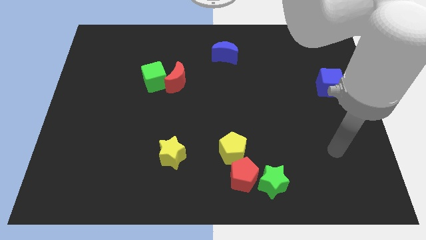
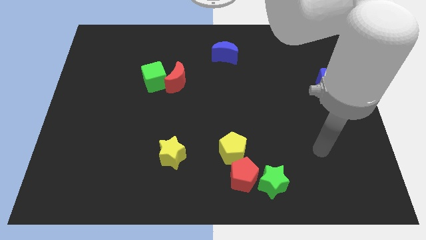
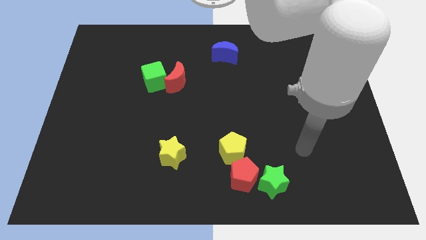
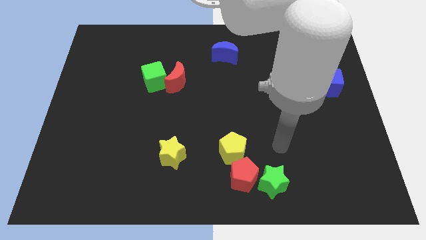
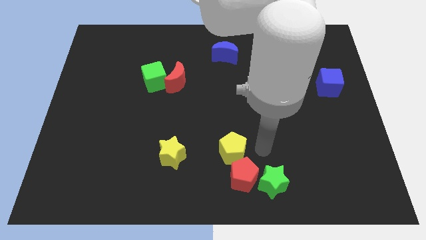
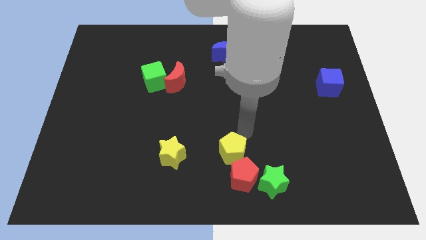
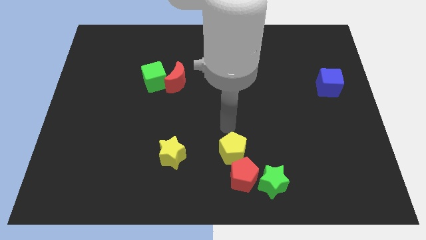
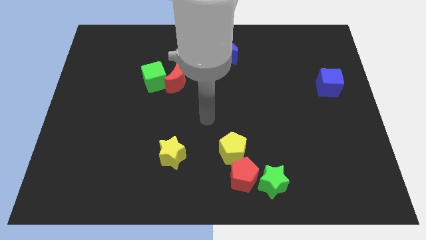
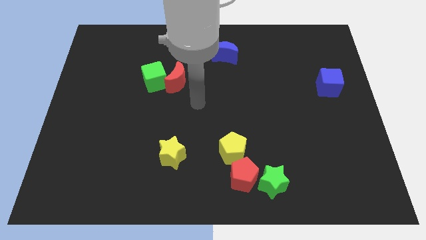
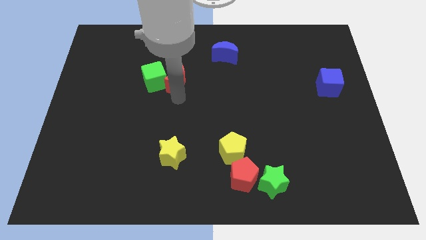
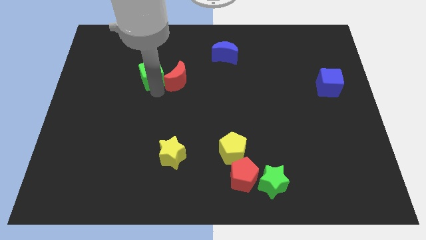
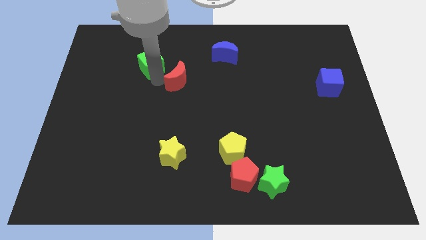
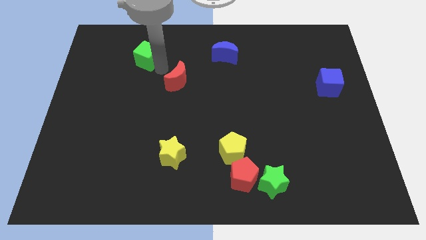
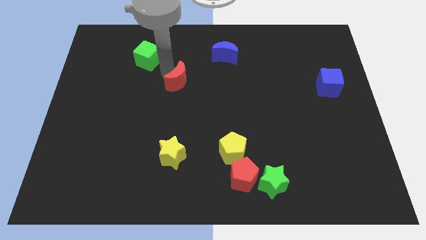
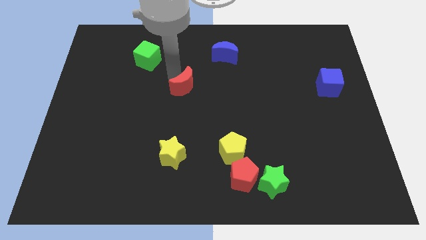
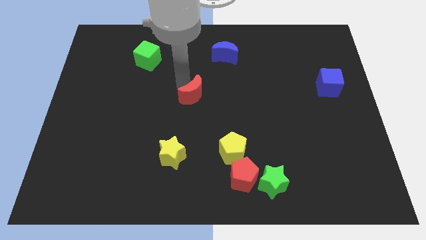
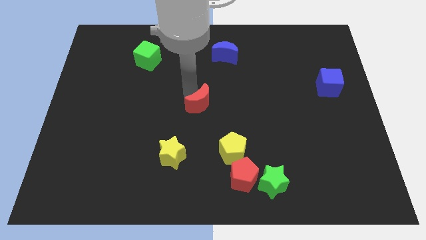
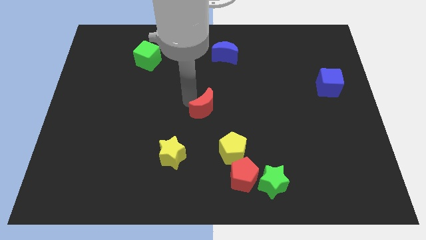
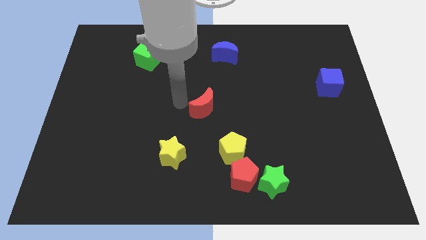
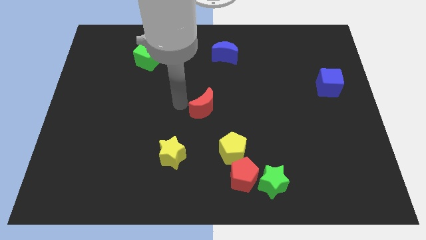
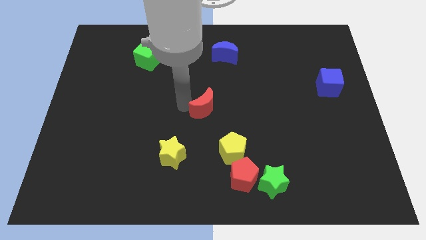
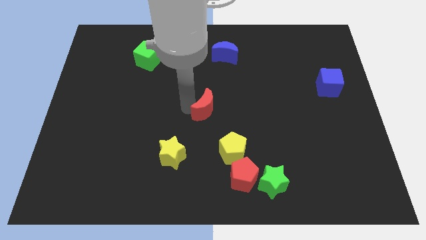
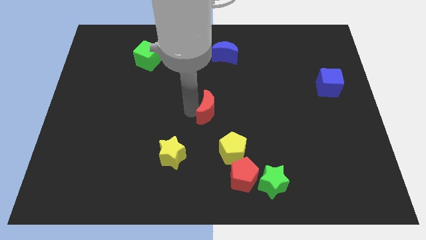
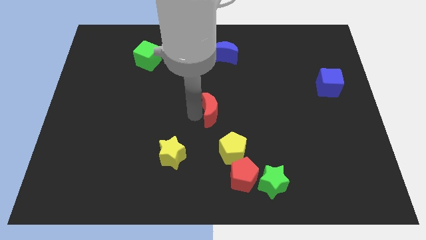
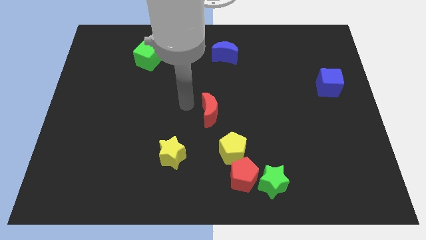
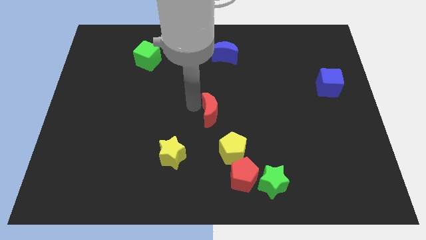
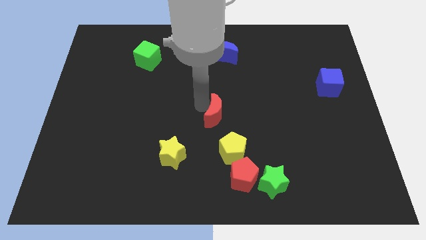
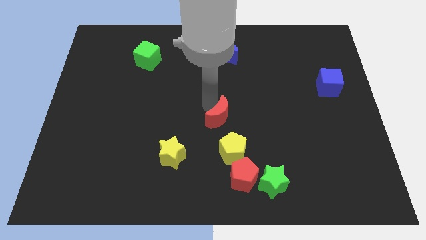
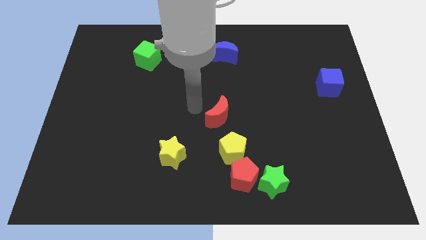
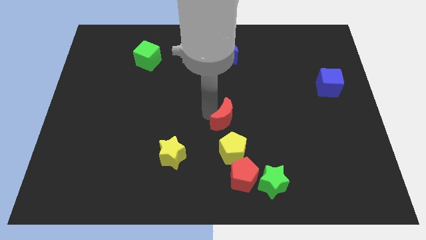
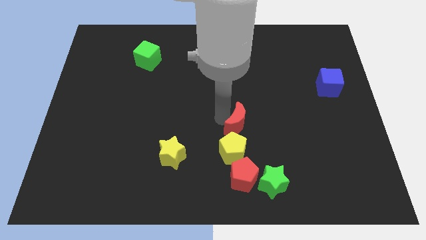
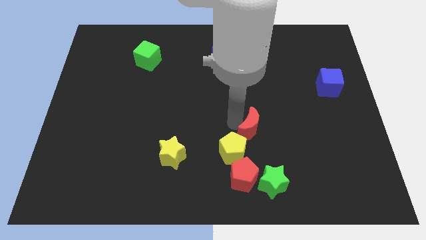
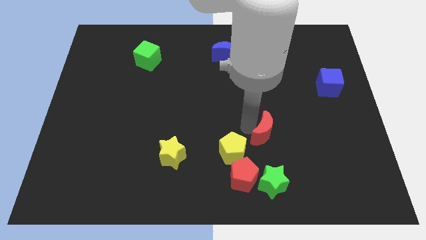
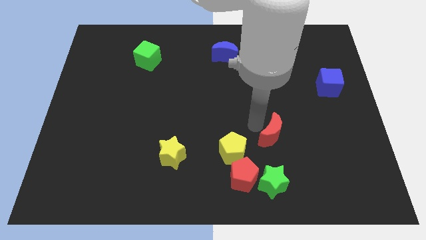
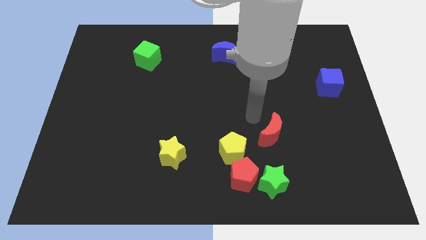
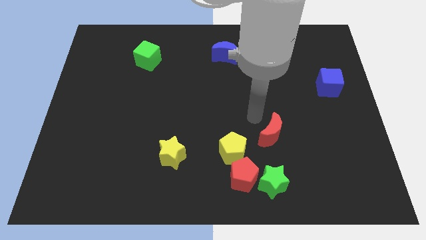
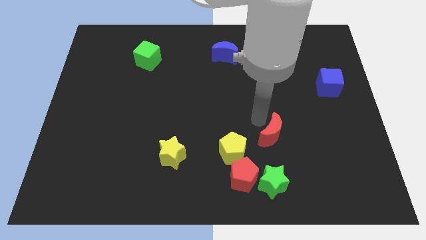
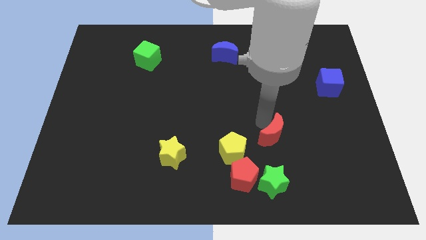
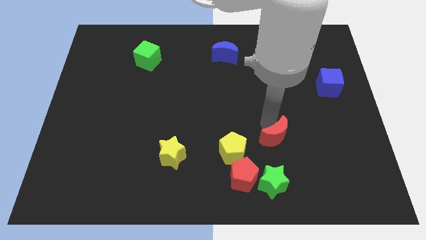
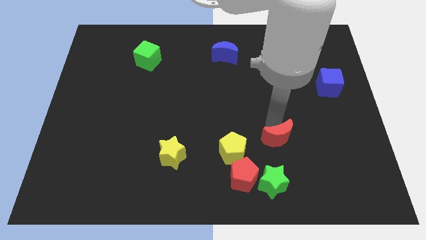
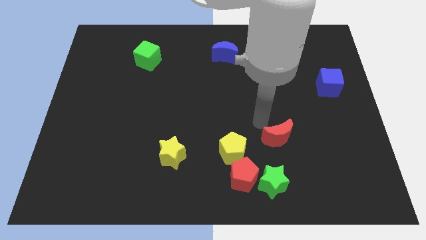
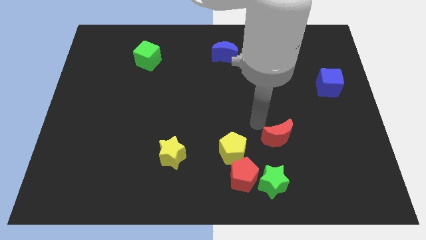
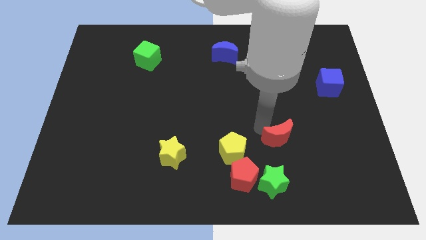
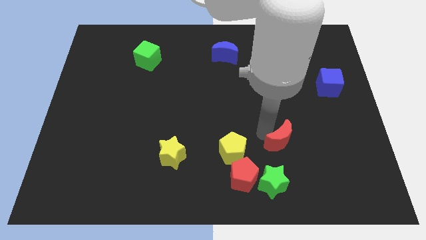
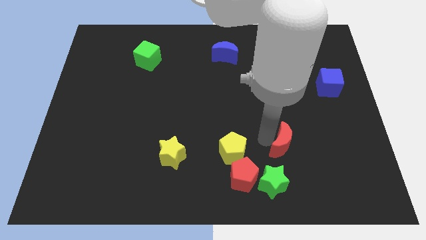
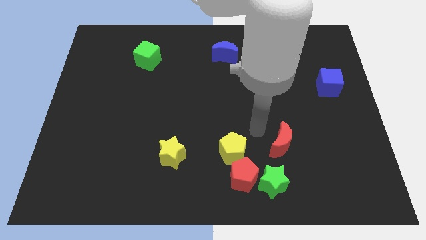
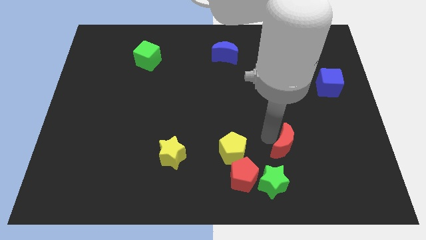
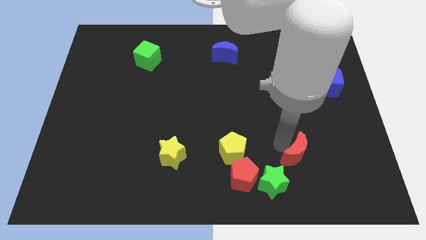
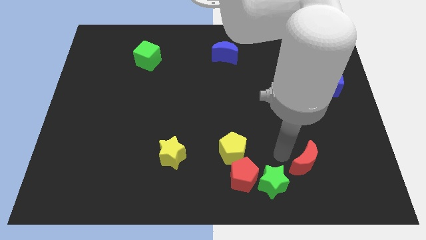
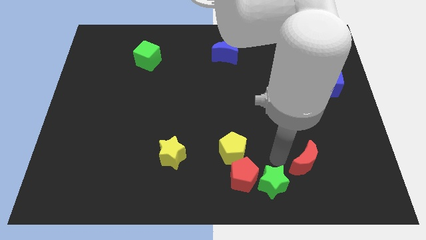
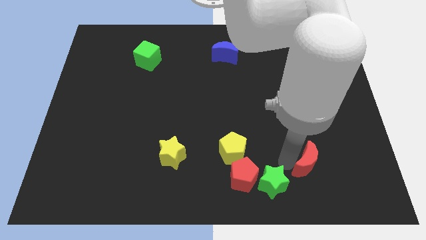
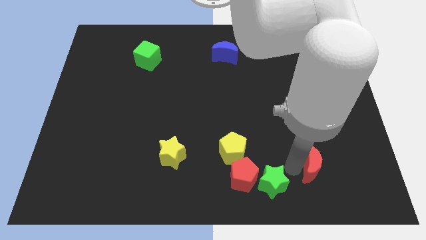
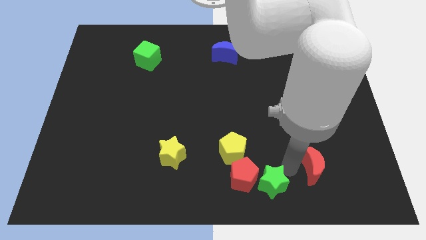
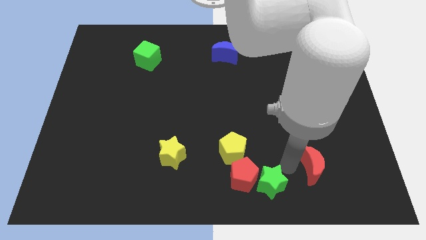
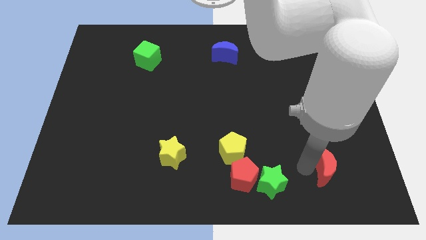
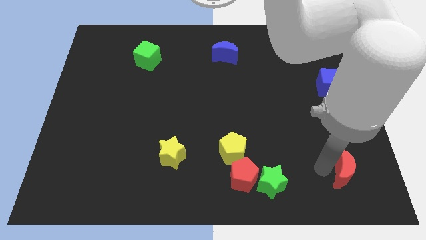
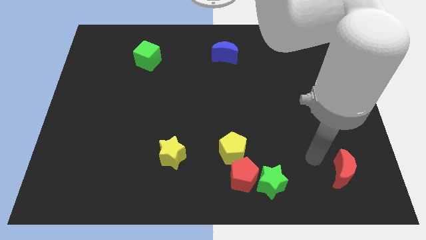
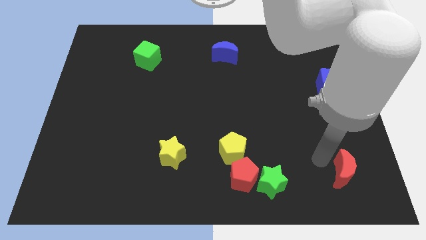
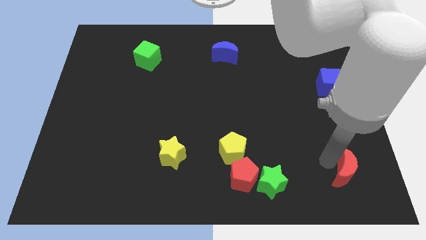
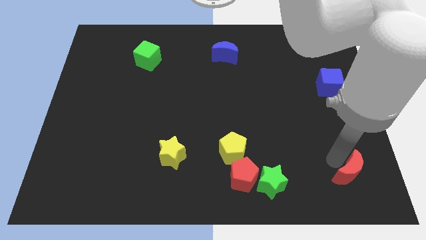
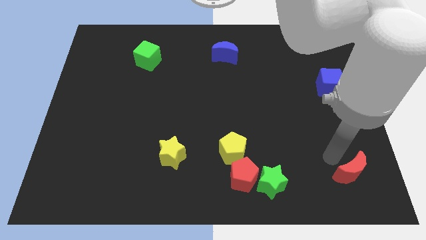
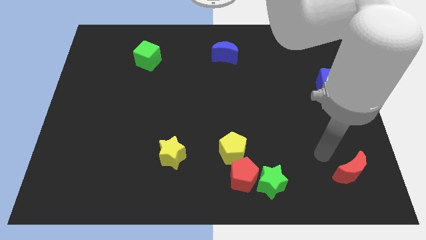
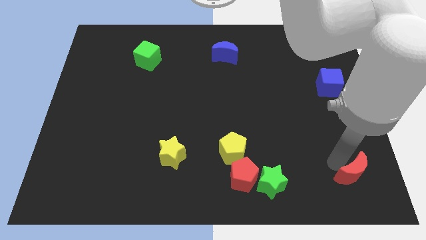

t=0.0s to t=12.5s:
push the red moon to the bottom right

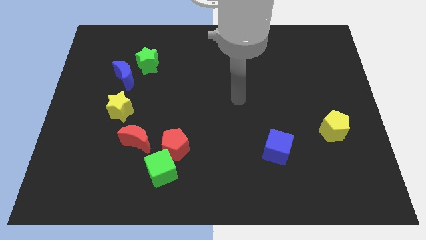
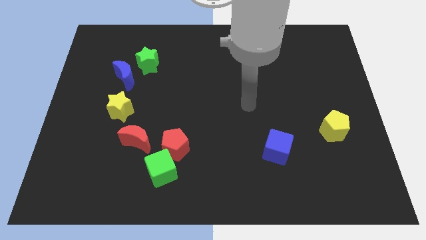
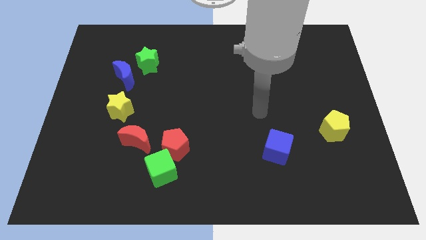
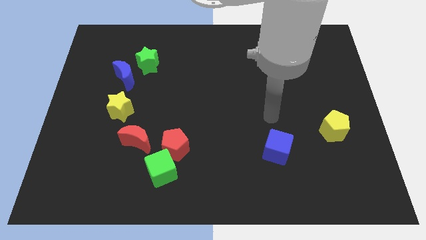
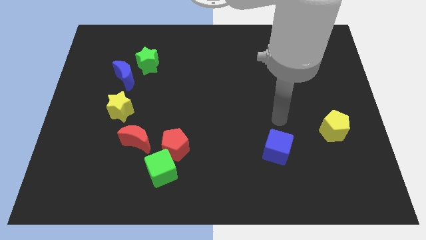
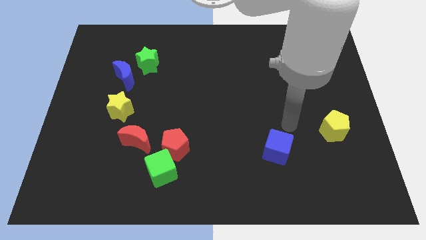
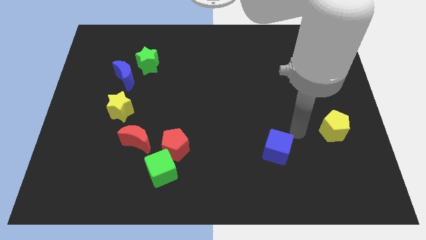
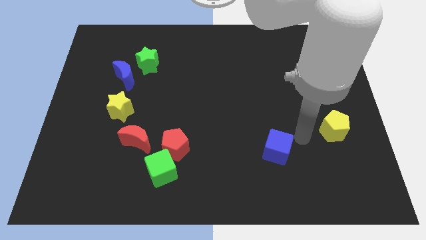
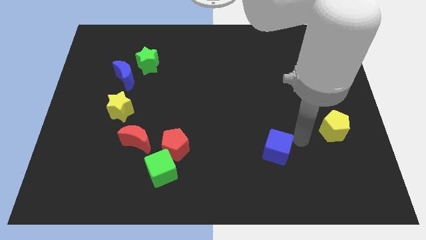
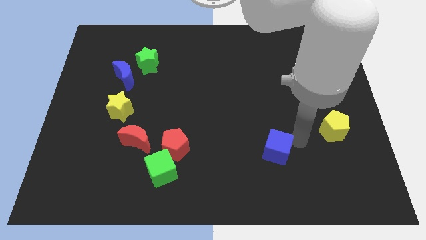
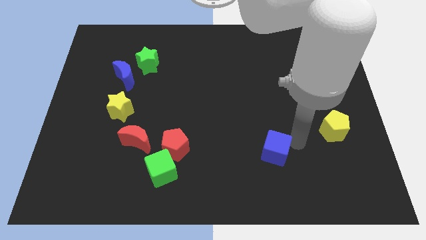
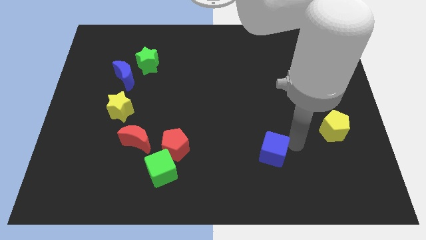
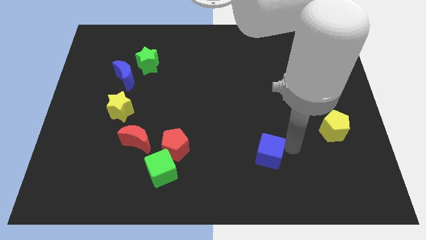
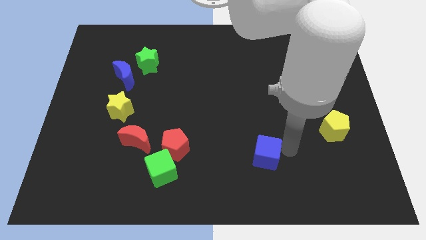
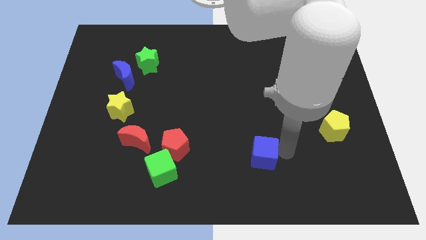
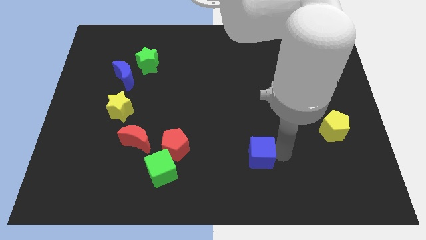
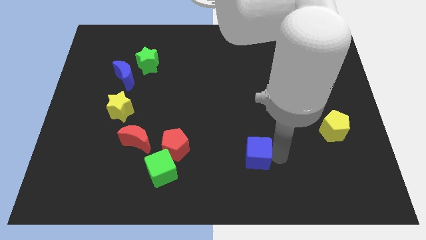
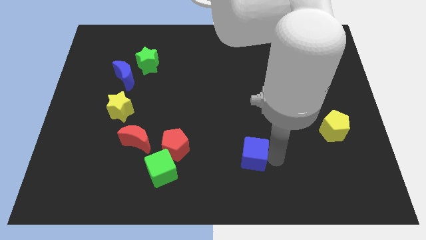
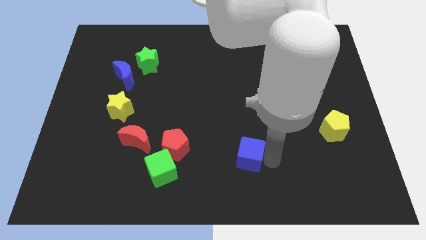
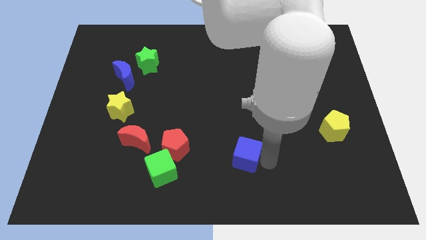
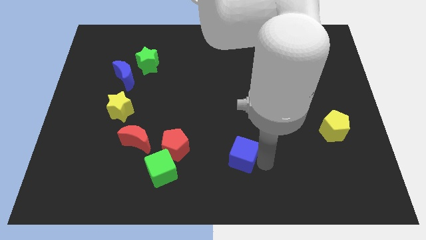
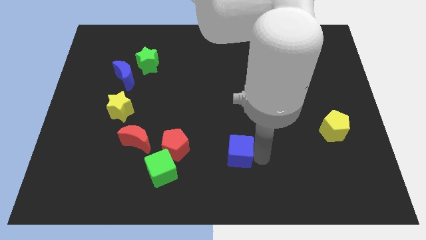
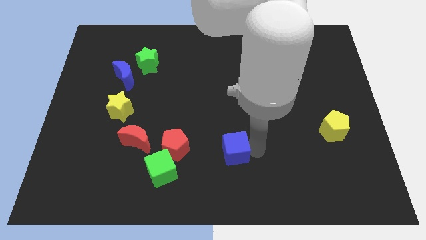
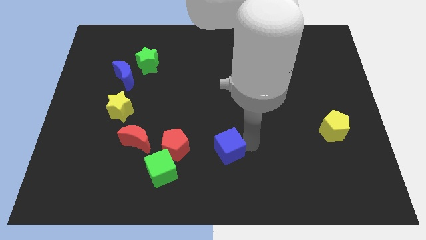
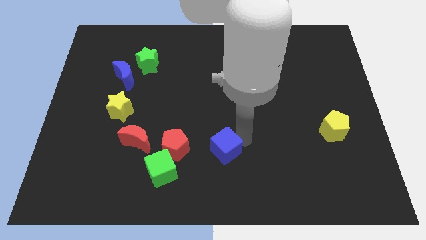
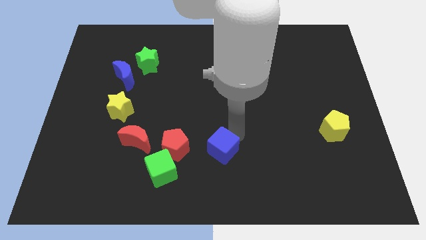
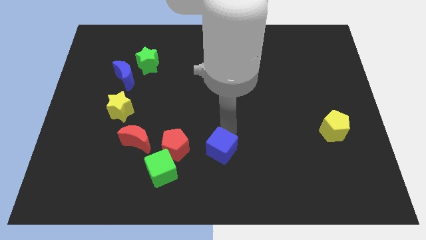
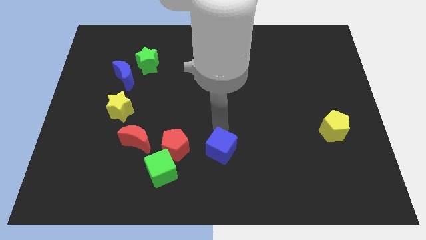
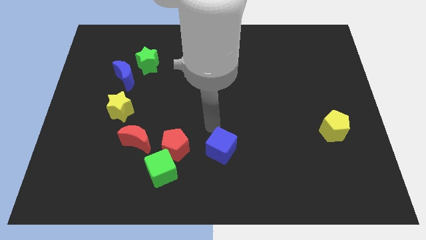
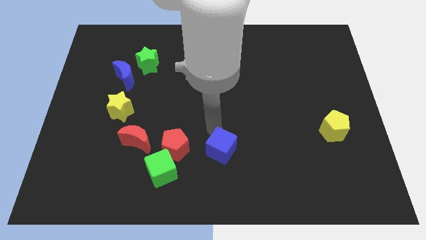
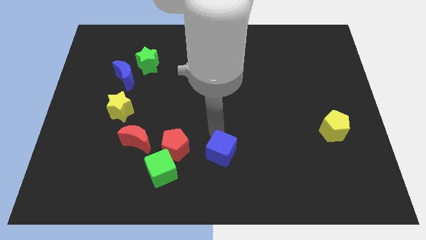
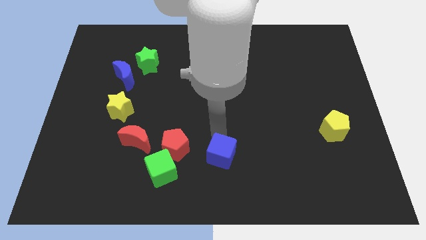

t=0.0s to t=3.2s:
slide the blue cube to the bottom
